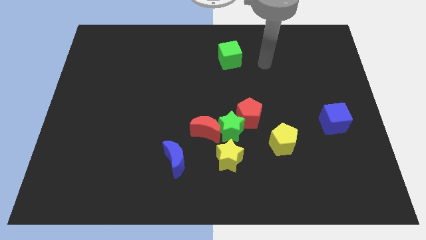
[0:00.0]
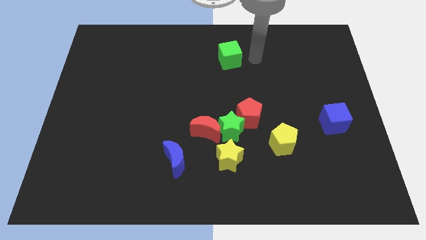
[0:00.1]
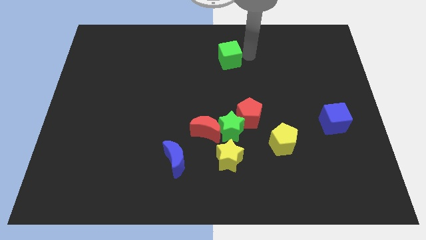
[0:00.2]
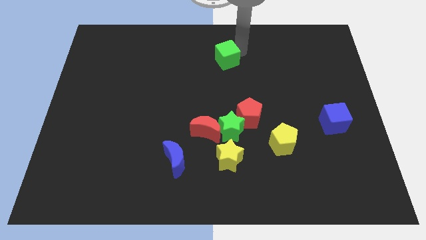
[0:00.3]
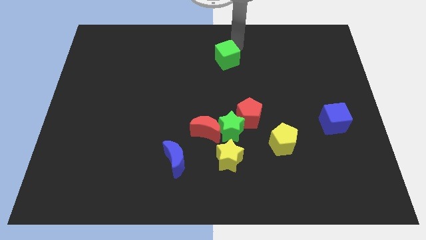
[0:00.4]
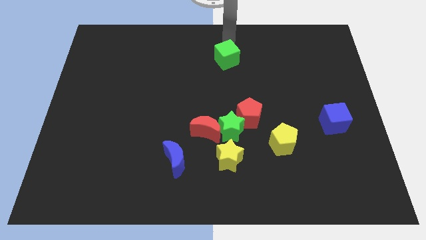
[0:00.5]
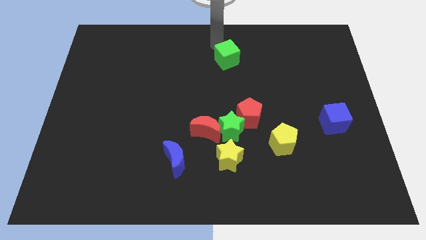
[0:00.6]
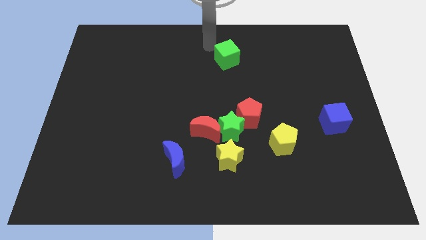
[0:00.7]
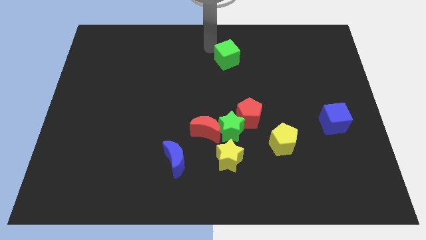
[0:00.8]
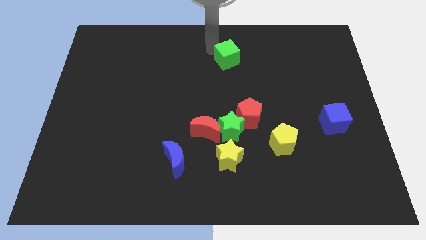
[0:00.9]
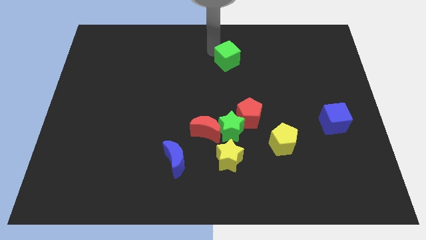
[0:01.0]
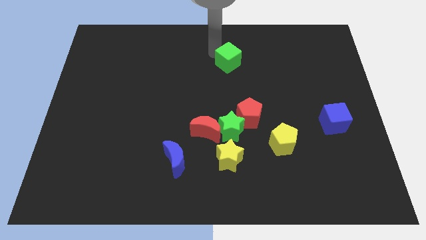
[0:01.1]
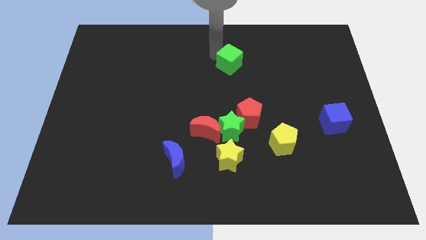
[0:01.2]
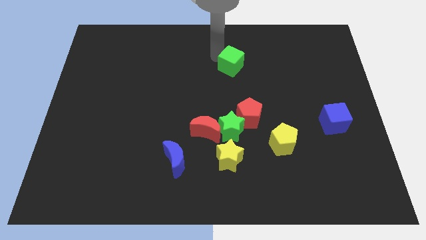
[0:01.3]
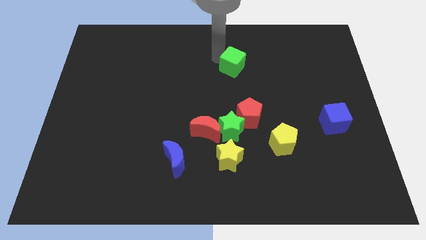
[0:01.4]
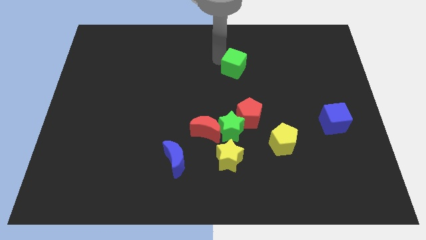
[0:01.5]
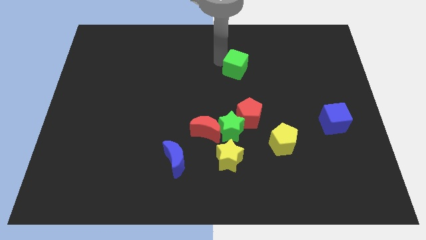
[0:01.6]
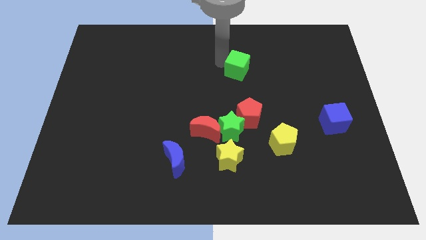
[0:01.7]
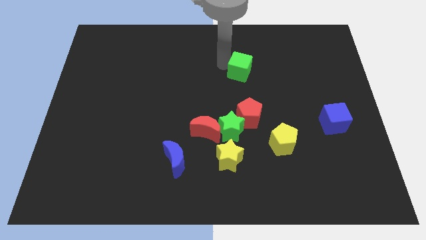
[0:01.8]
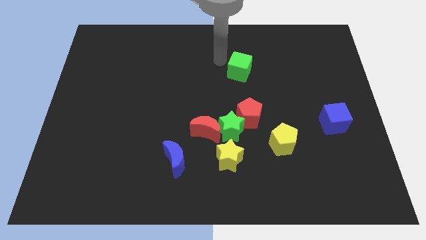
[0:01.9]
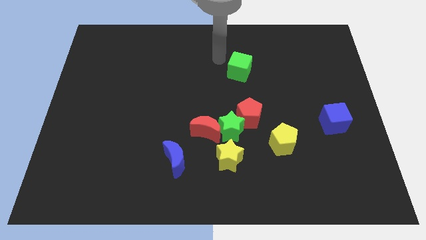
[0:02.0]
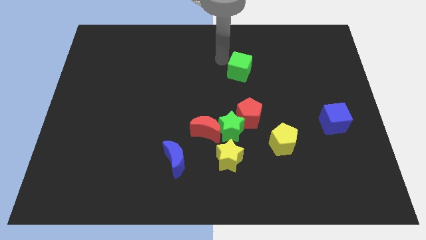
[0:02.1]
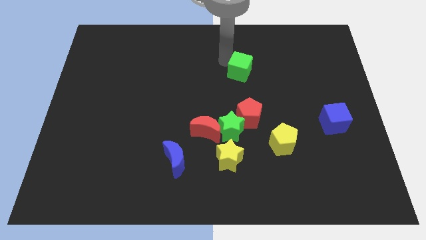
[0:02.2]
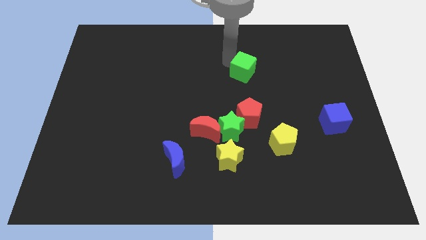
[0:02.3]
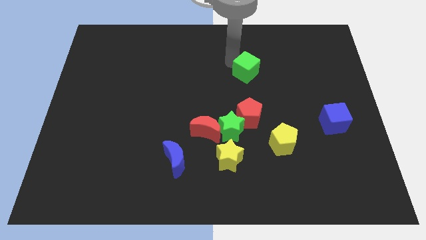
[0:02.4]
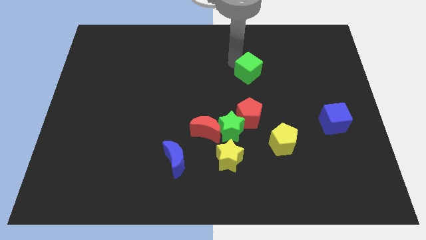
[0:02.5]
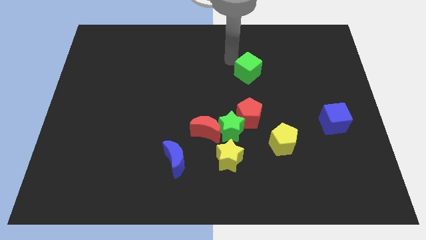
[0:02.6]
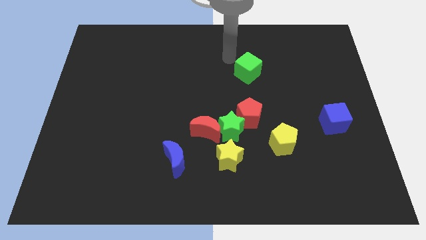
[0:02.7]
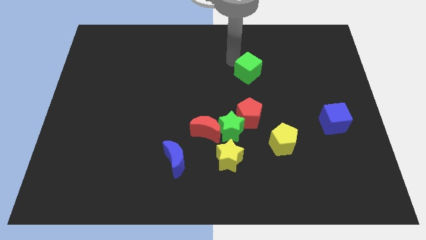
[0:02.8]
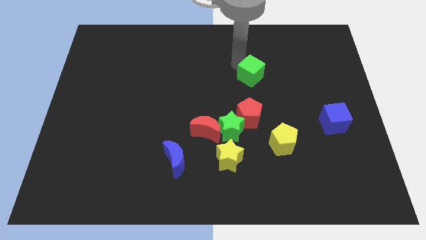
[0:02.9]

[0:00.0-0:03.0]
move the green cube downwards and right diagonally a little bit

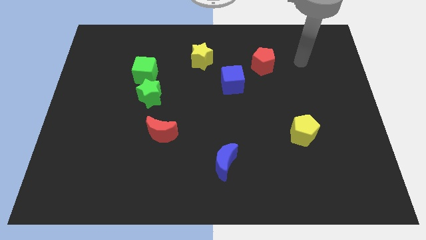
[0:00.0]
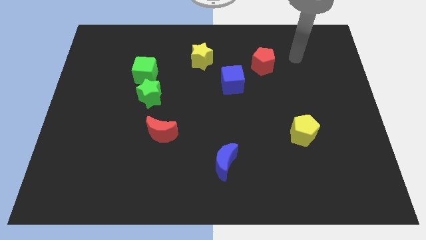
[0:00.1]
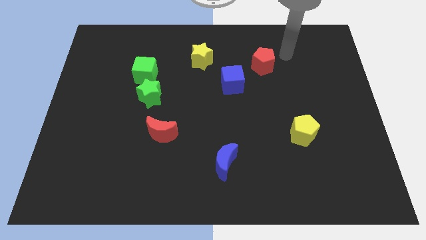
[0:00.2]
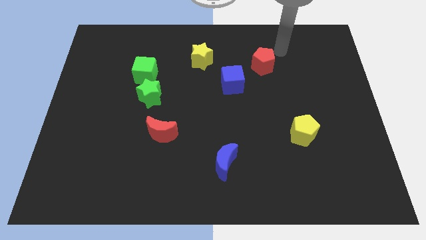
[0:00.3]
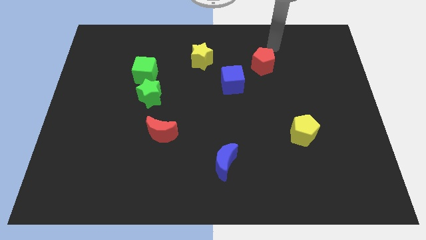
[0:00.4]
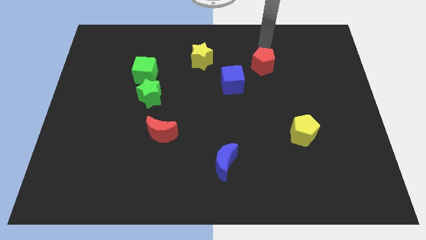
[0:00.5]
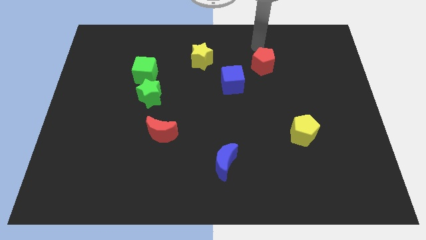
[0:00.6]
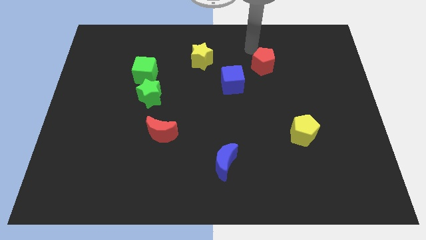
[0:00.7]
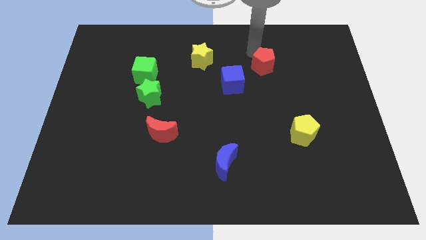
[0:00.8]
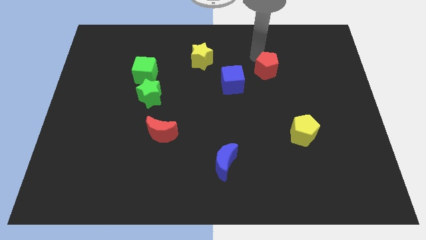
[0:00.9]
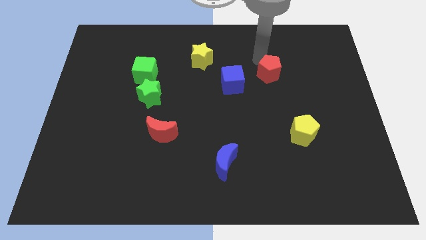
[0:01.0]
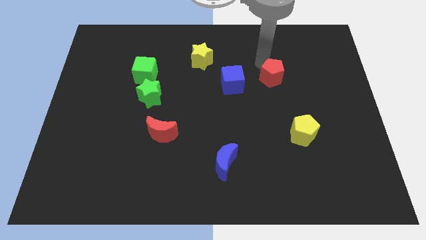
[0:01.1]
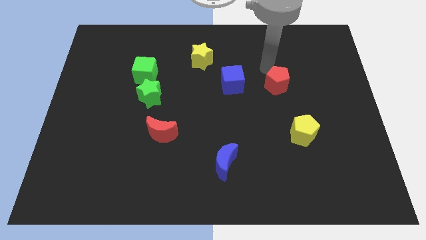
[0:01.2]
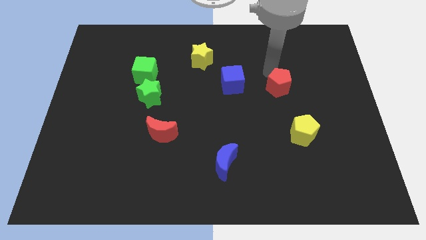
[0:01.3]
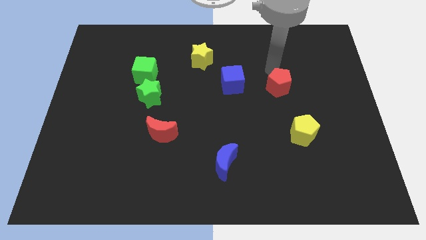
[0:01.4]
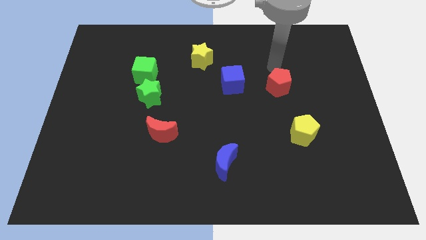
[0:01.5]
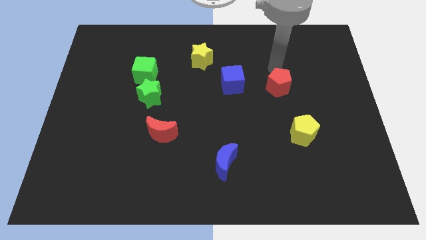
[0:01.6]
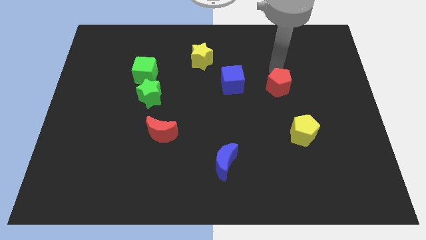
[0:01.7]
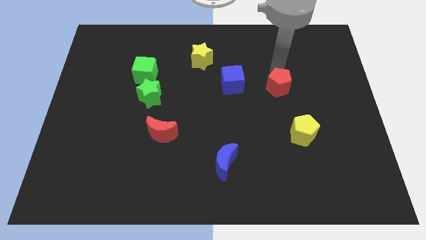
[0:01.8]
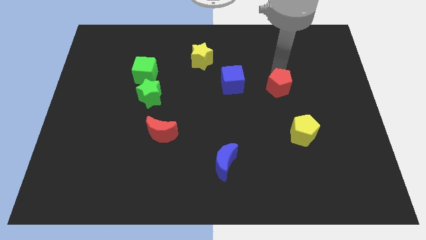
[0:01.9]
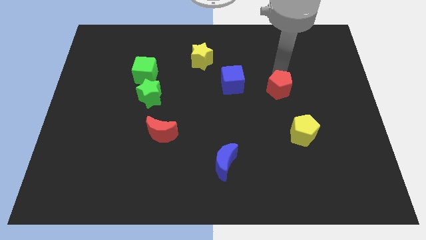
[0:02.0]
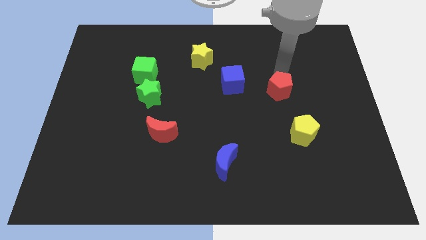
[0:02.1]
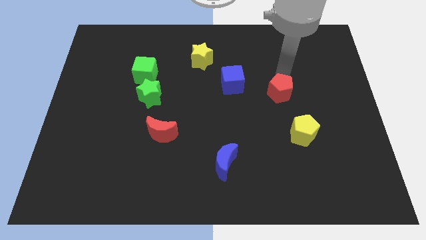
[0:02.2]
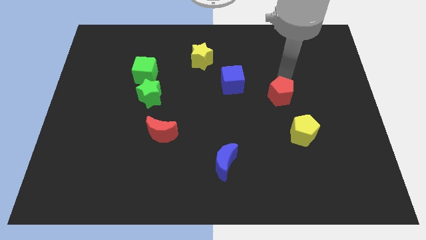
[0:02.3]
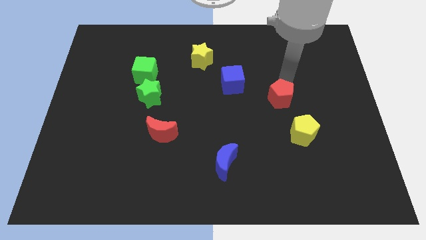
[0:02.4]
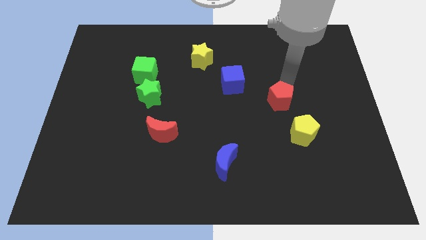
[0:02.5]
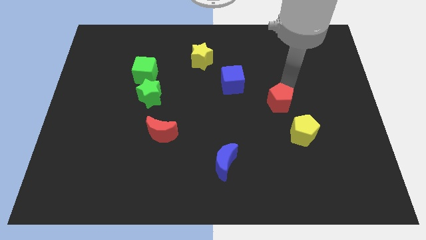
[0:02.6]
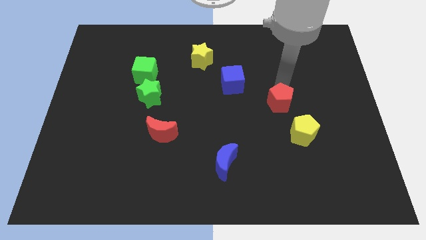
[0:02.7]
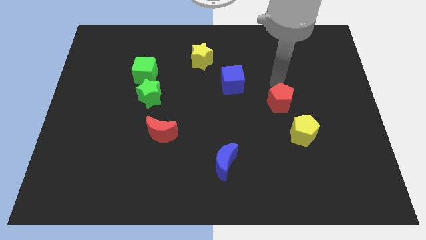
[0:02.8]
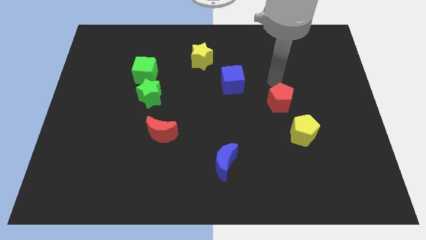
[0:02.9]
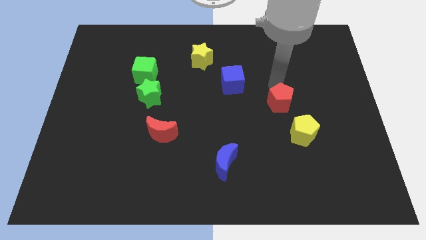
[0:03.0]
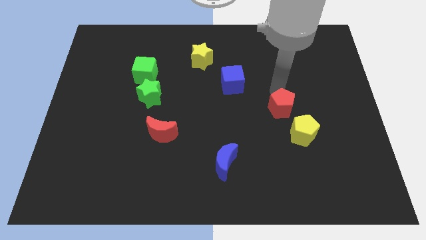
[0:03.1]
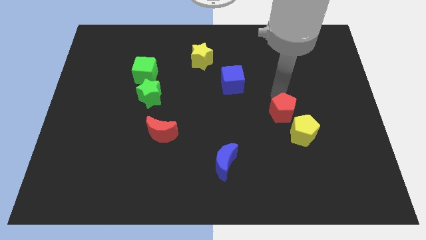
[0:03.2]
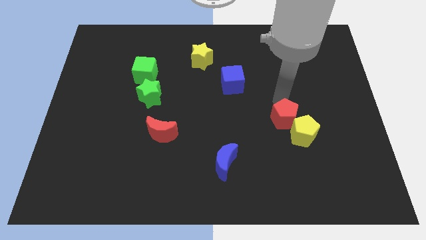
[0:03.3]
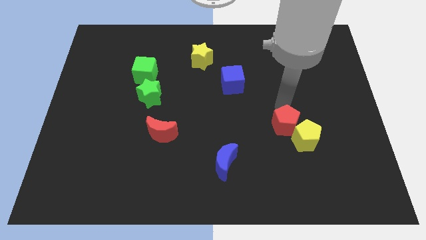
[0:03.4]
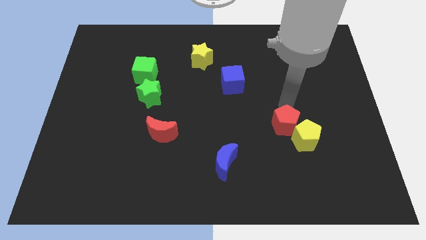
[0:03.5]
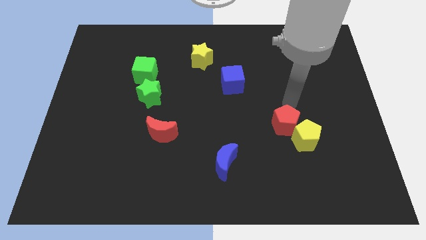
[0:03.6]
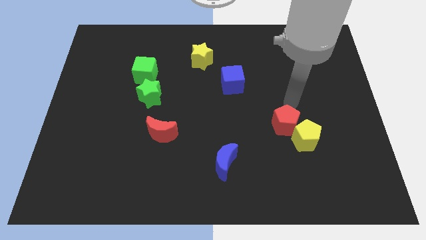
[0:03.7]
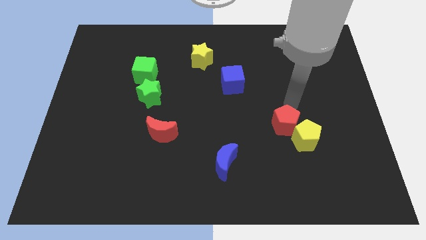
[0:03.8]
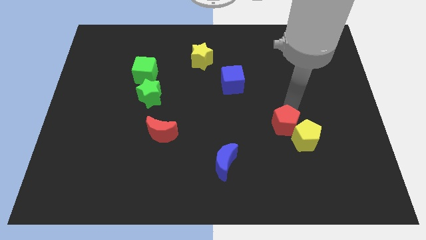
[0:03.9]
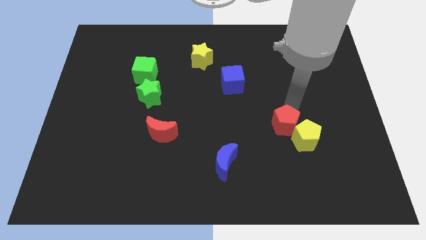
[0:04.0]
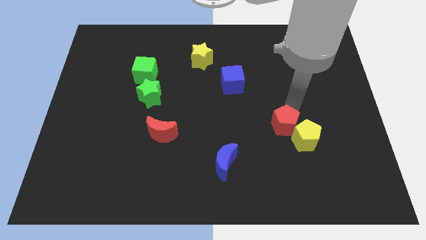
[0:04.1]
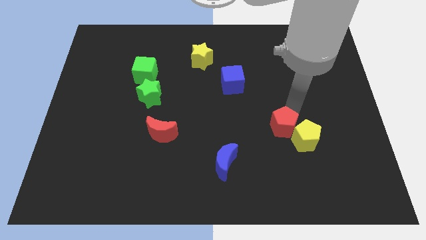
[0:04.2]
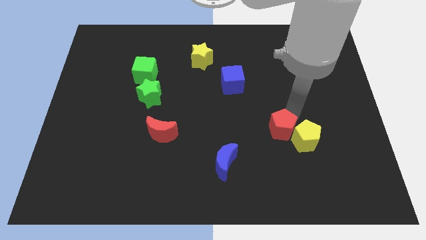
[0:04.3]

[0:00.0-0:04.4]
move the red pentagon down

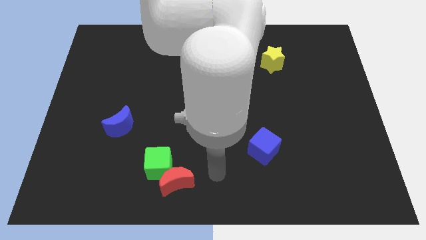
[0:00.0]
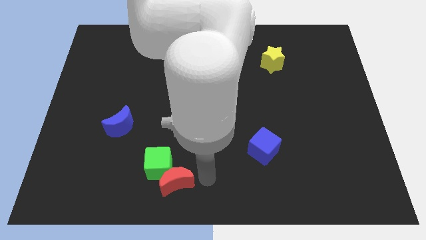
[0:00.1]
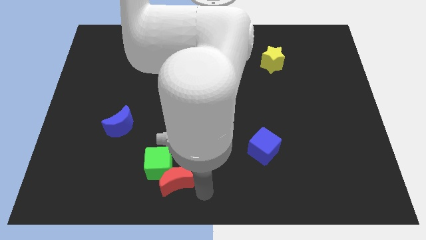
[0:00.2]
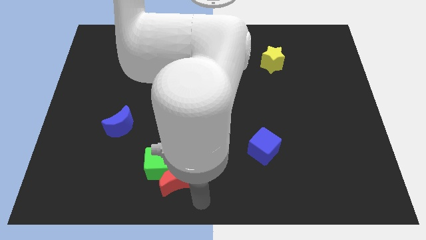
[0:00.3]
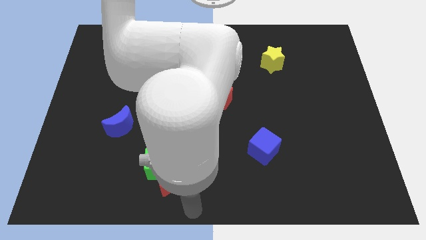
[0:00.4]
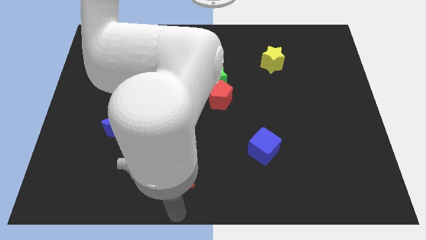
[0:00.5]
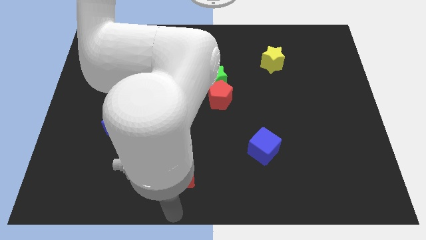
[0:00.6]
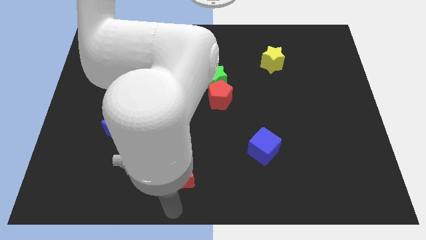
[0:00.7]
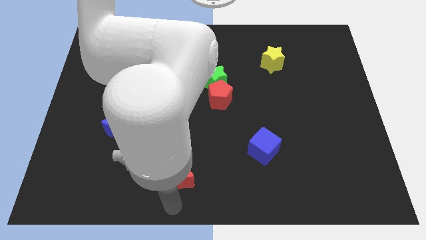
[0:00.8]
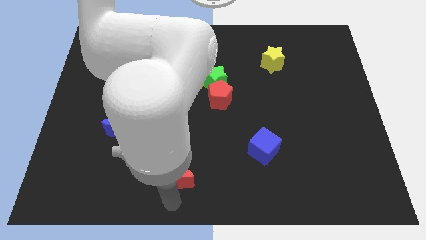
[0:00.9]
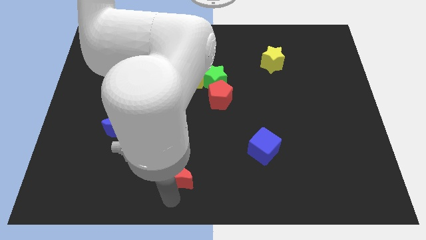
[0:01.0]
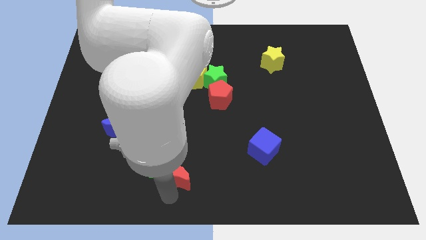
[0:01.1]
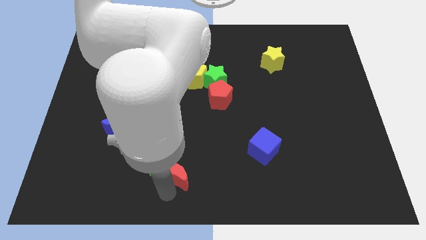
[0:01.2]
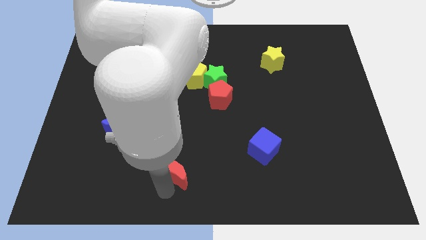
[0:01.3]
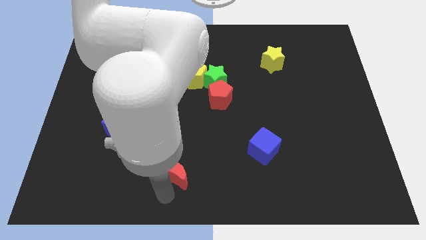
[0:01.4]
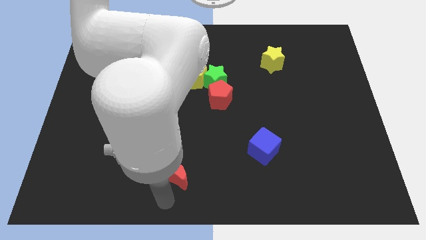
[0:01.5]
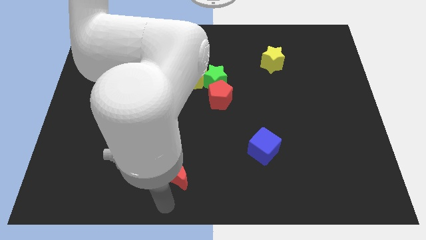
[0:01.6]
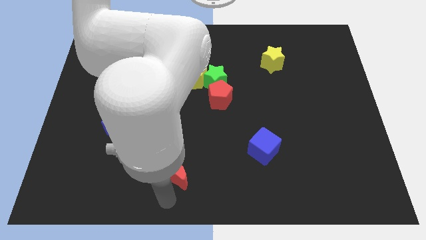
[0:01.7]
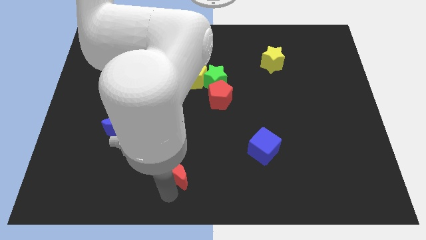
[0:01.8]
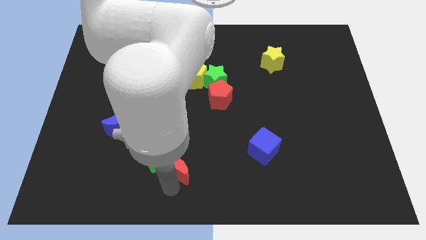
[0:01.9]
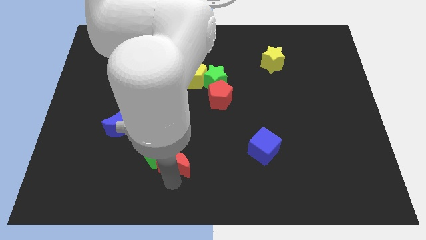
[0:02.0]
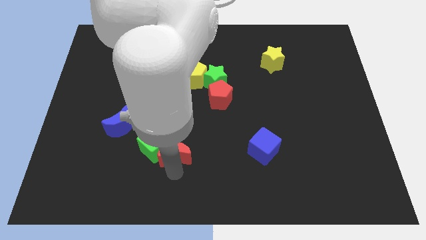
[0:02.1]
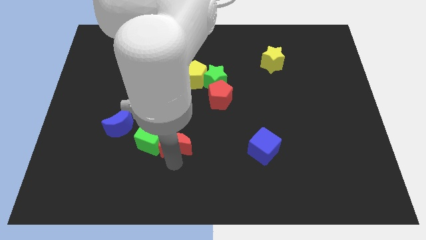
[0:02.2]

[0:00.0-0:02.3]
slightly move the red moon upwards
